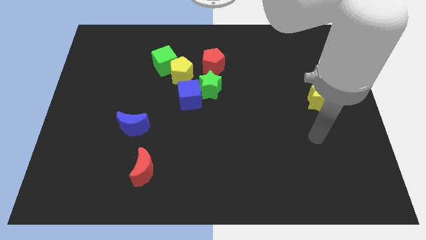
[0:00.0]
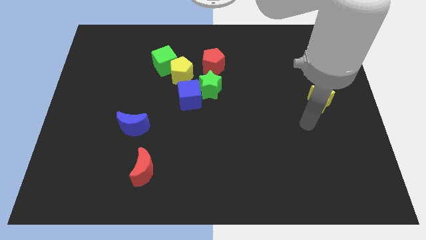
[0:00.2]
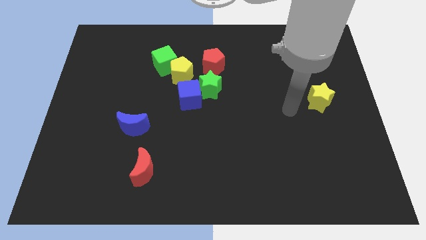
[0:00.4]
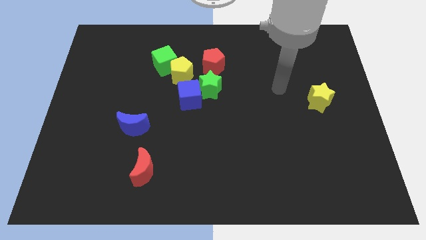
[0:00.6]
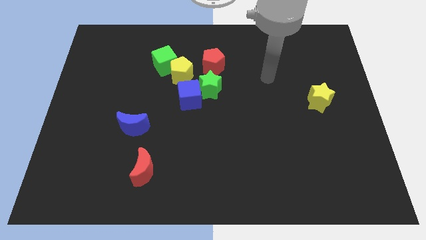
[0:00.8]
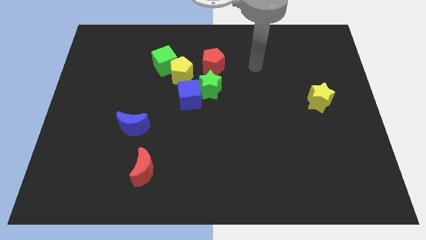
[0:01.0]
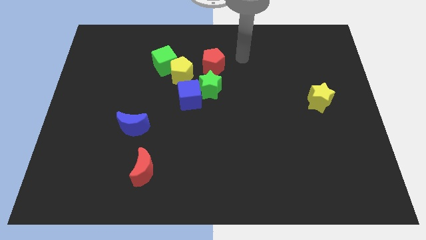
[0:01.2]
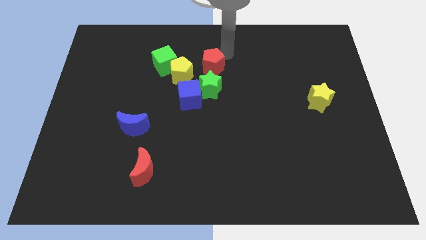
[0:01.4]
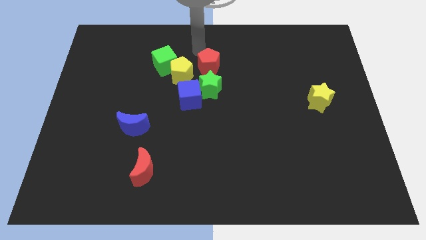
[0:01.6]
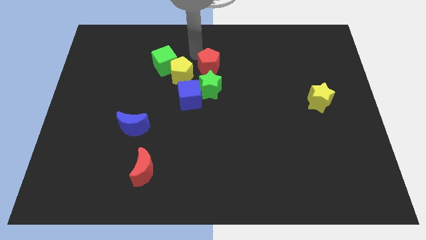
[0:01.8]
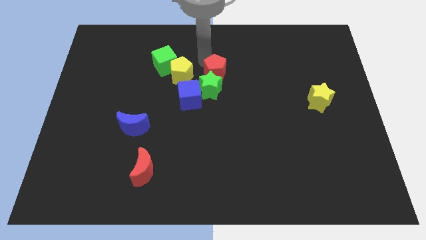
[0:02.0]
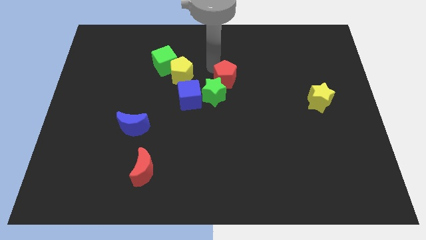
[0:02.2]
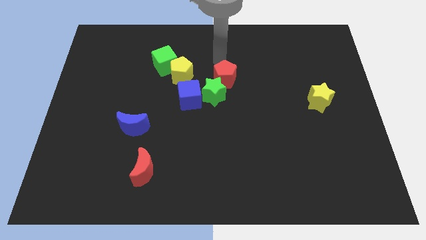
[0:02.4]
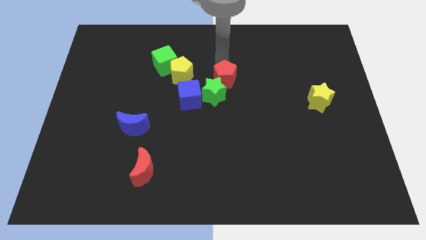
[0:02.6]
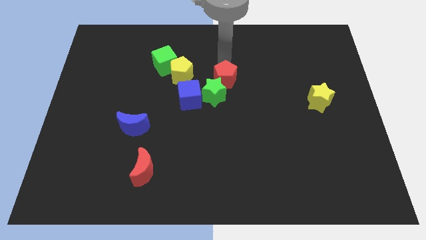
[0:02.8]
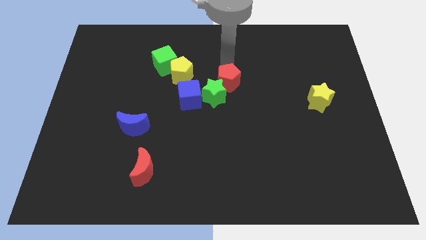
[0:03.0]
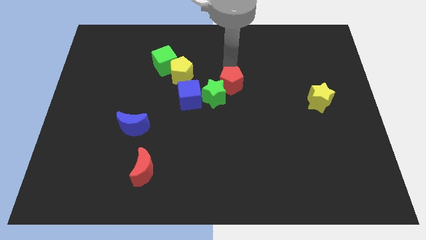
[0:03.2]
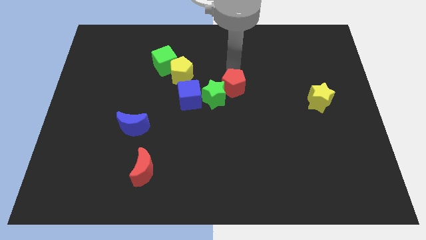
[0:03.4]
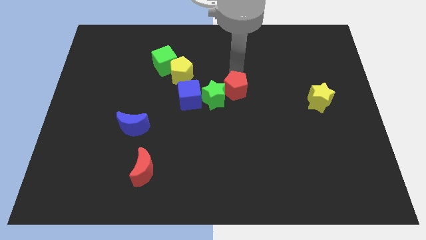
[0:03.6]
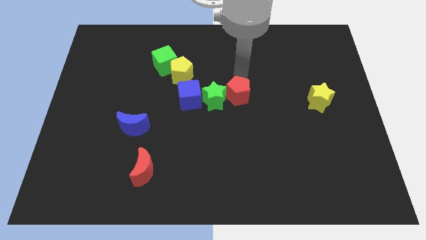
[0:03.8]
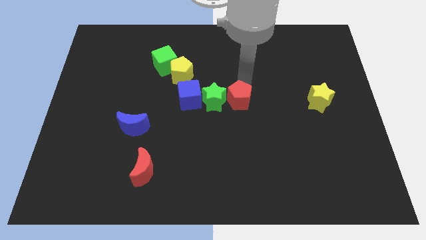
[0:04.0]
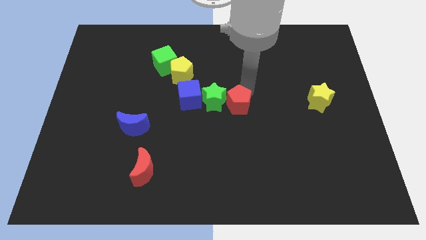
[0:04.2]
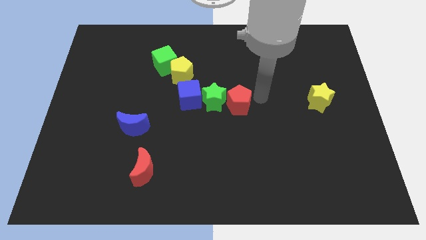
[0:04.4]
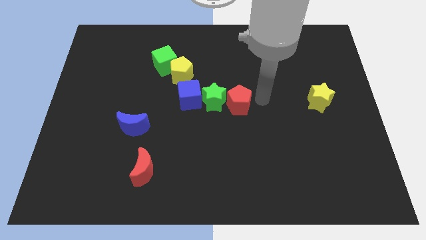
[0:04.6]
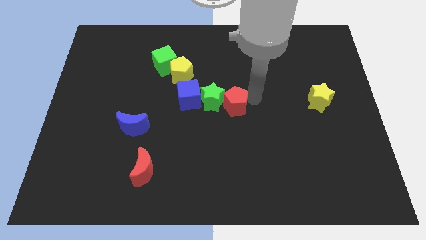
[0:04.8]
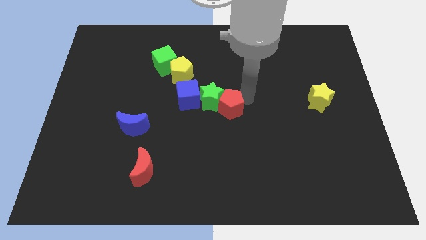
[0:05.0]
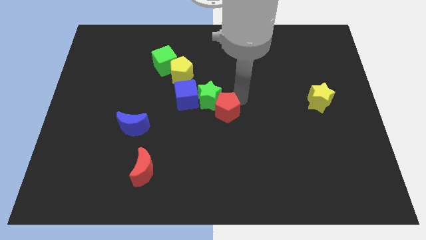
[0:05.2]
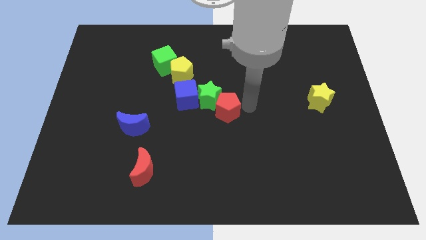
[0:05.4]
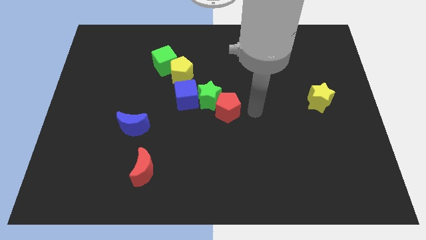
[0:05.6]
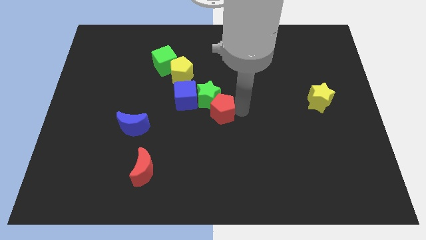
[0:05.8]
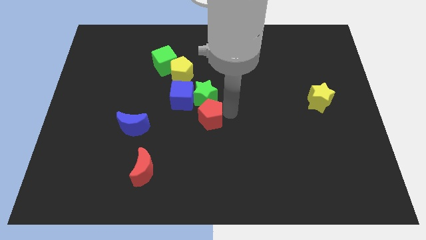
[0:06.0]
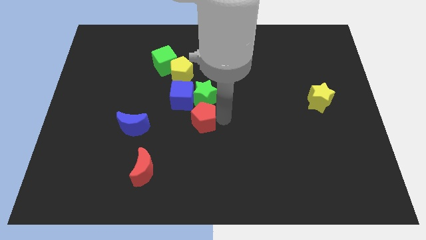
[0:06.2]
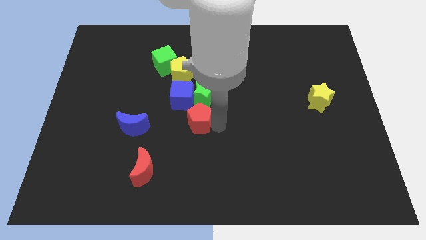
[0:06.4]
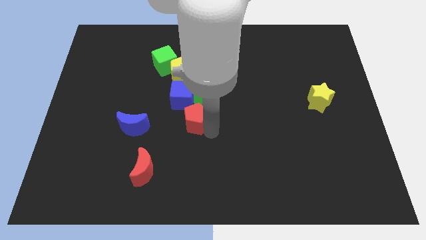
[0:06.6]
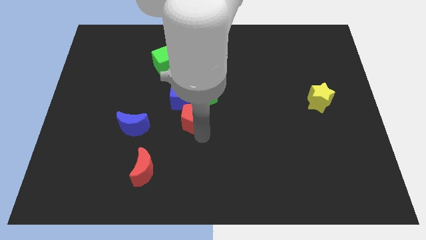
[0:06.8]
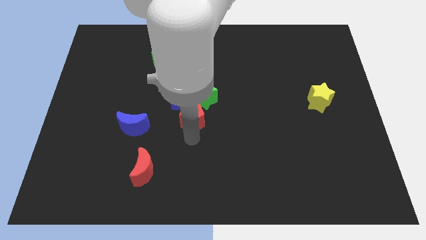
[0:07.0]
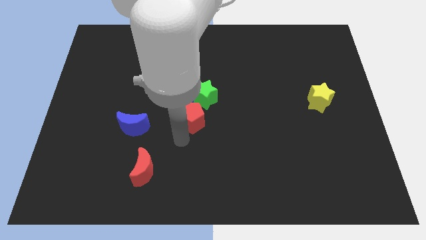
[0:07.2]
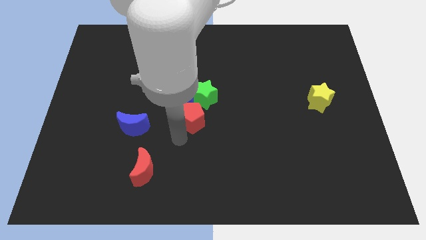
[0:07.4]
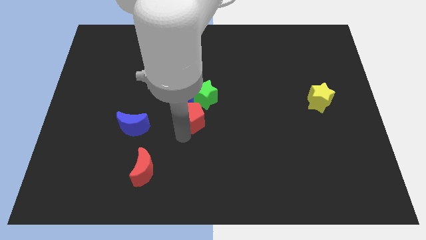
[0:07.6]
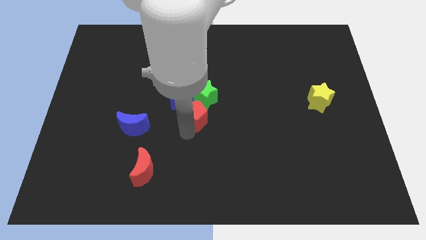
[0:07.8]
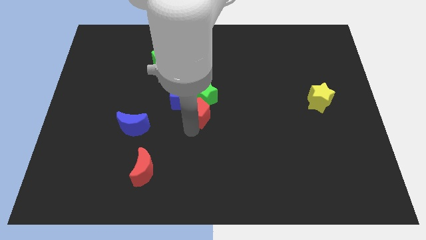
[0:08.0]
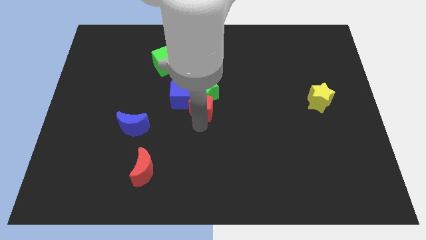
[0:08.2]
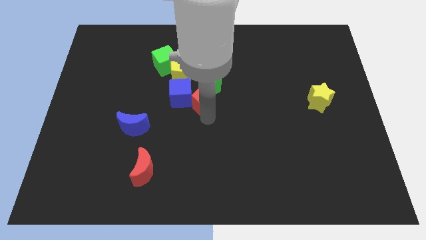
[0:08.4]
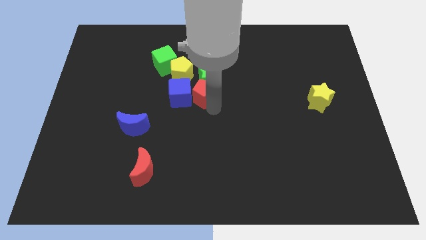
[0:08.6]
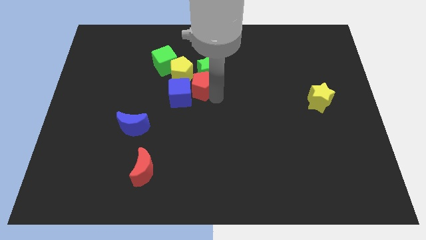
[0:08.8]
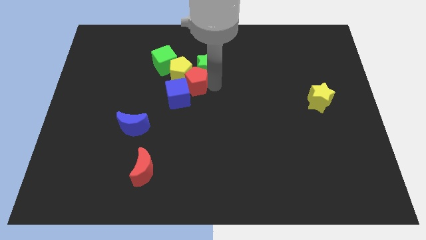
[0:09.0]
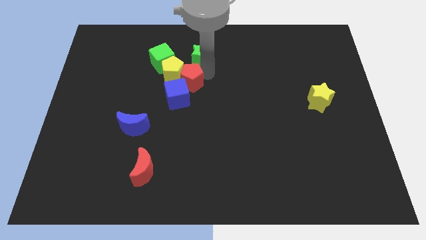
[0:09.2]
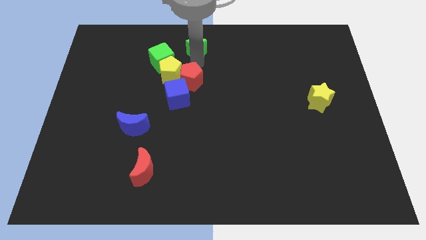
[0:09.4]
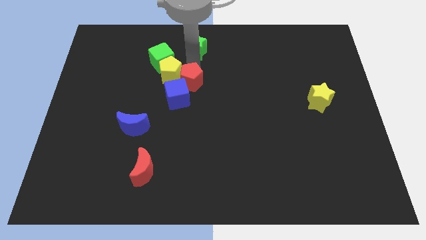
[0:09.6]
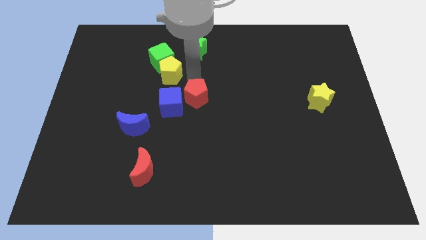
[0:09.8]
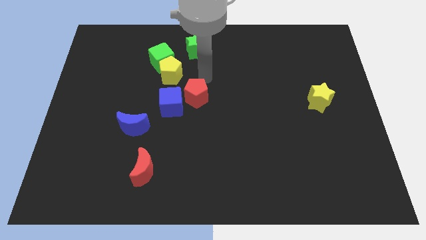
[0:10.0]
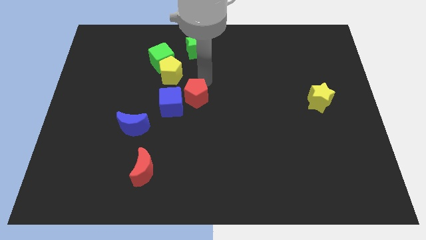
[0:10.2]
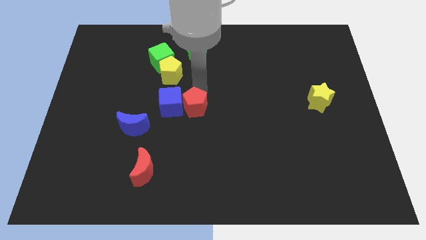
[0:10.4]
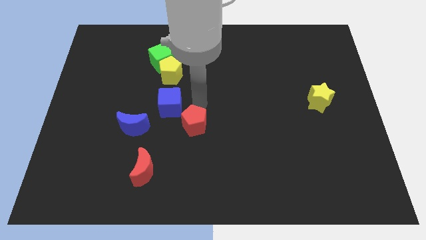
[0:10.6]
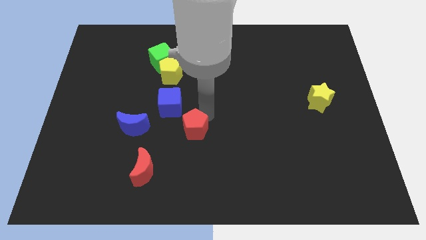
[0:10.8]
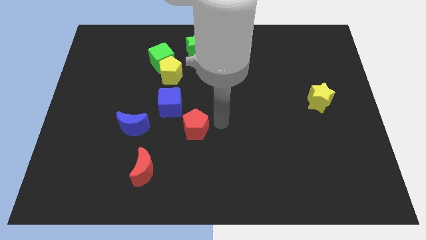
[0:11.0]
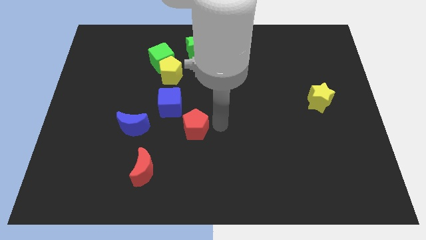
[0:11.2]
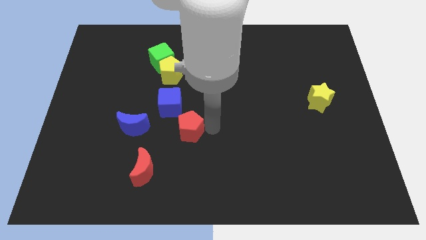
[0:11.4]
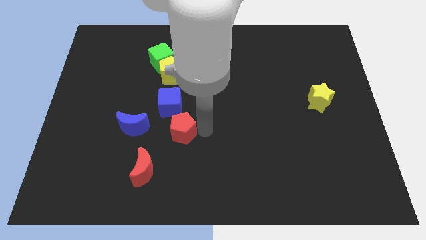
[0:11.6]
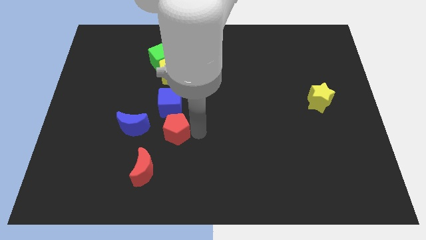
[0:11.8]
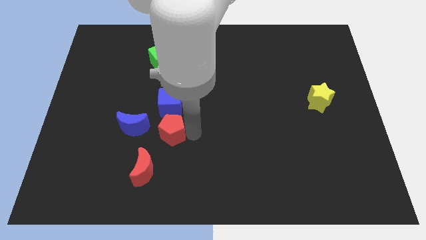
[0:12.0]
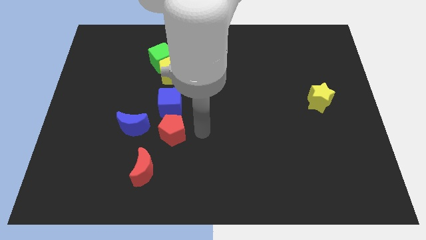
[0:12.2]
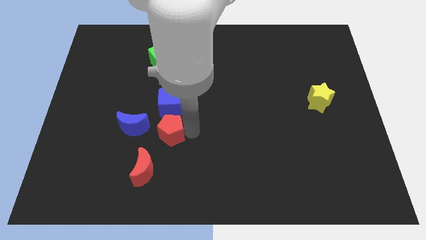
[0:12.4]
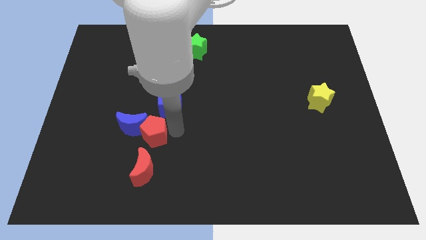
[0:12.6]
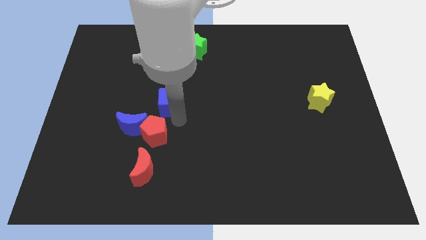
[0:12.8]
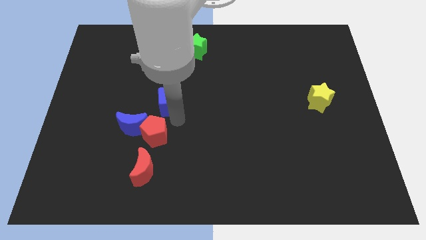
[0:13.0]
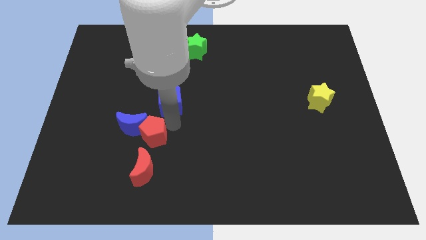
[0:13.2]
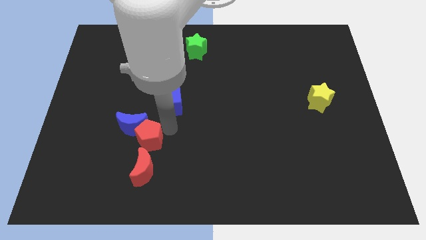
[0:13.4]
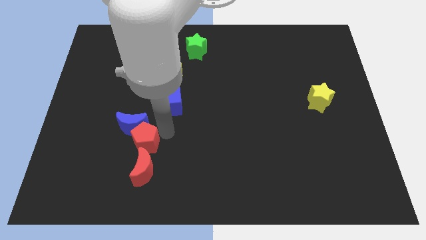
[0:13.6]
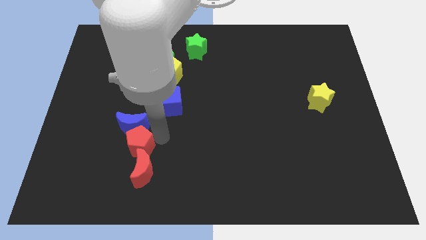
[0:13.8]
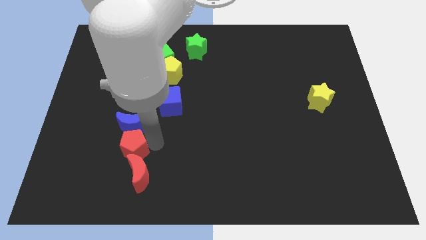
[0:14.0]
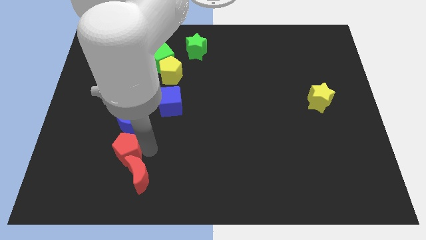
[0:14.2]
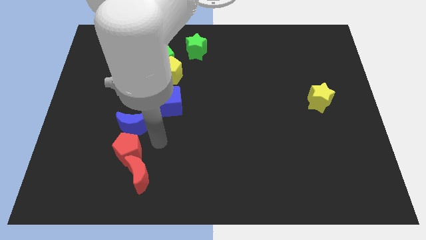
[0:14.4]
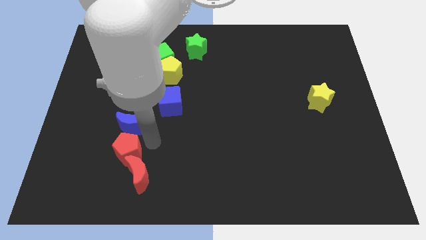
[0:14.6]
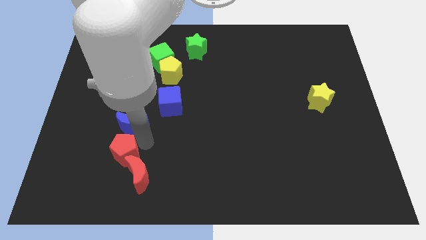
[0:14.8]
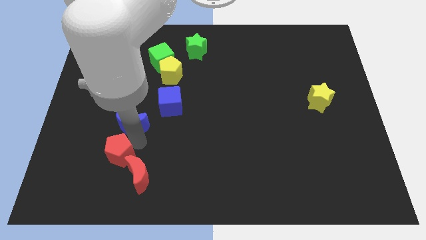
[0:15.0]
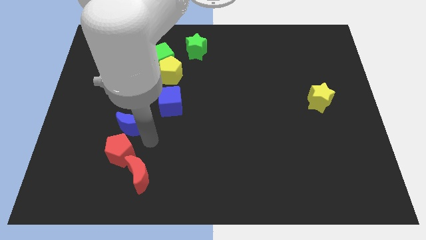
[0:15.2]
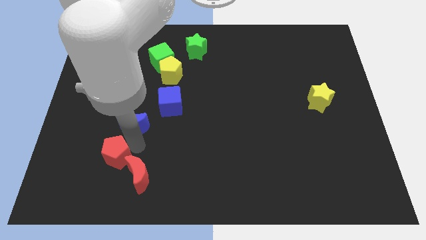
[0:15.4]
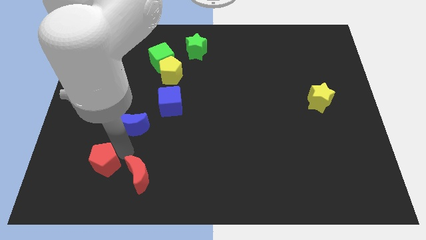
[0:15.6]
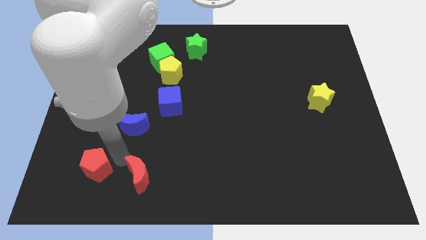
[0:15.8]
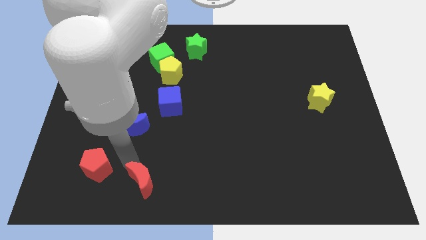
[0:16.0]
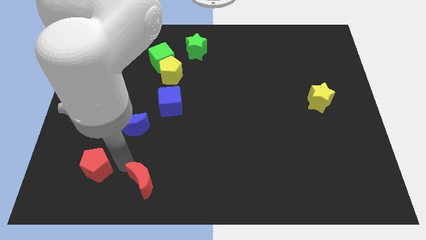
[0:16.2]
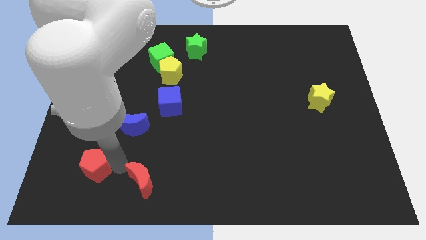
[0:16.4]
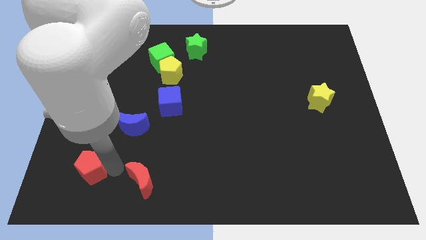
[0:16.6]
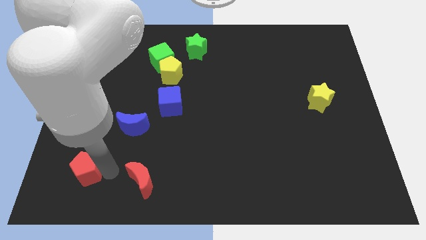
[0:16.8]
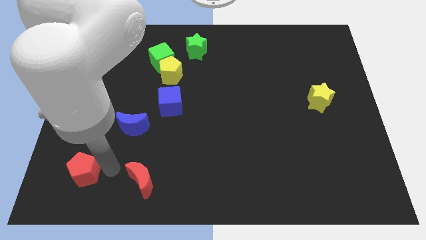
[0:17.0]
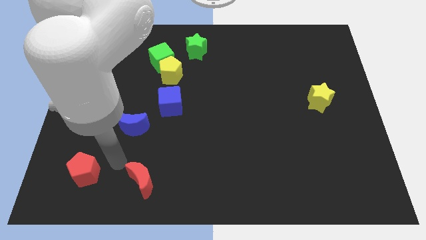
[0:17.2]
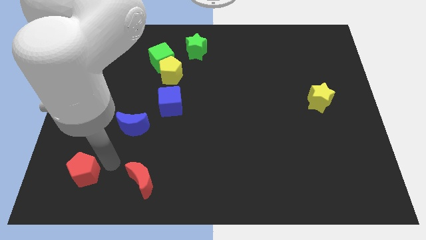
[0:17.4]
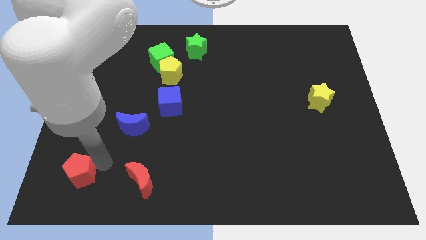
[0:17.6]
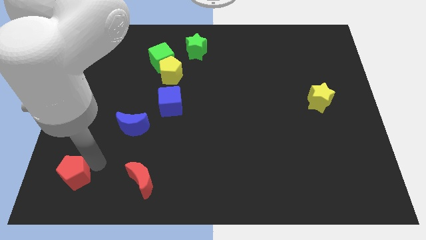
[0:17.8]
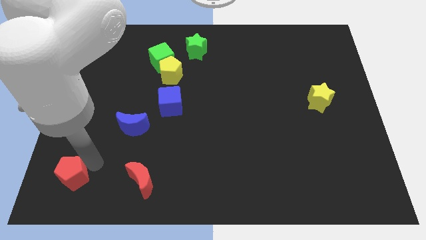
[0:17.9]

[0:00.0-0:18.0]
push the red pentagon to the bottom left of the board
